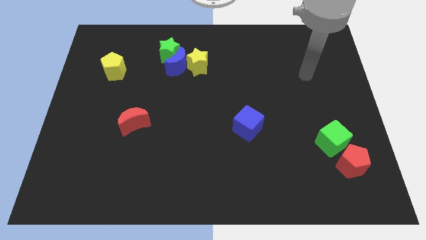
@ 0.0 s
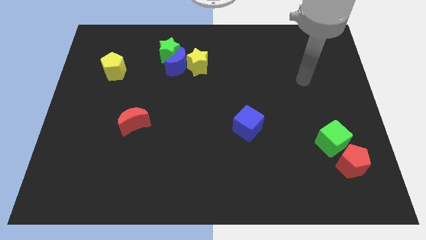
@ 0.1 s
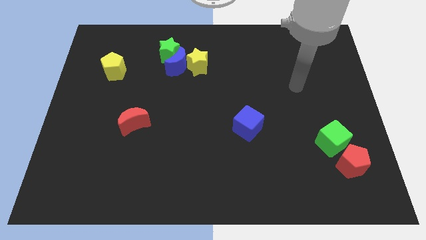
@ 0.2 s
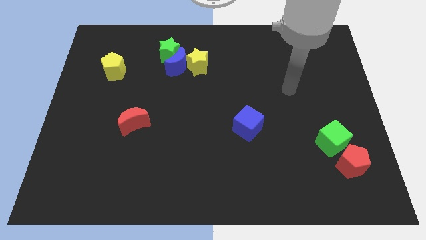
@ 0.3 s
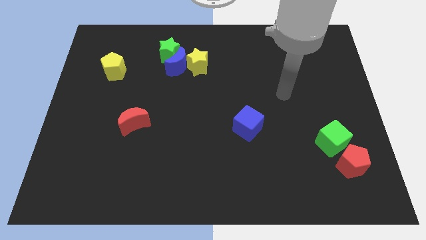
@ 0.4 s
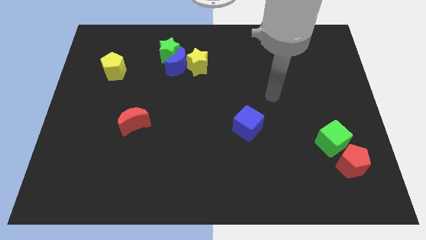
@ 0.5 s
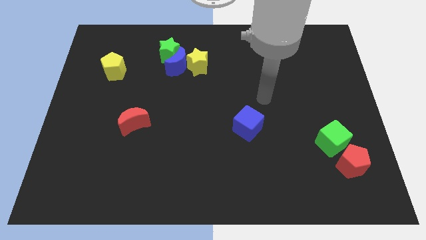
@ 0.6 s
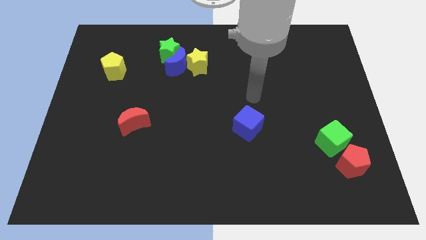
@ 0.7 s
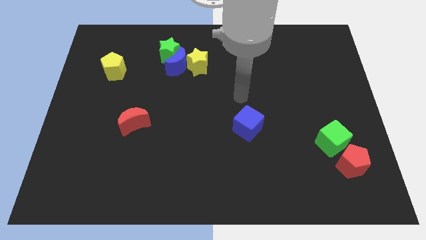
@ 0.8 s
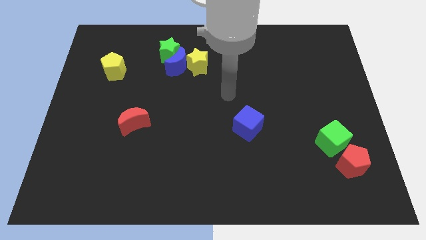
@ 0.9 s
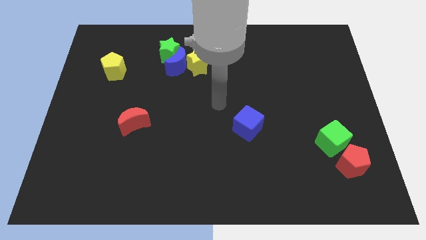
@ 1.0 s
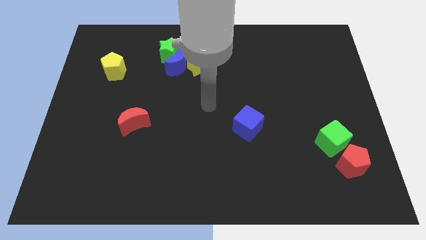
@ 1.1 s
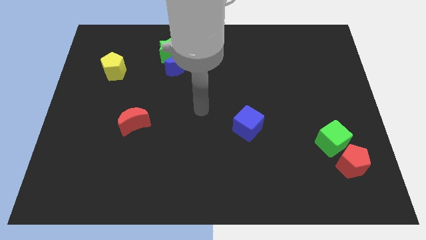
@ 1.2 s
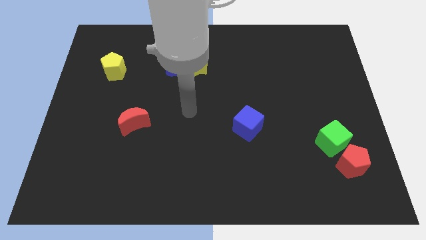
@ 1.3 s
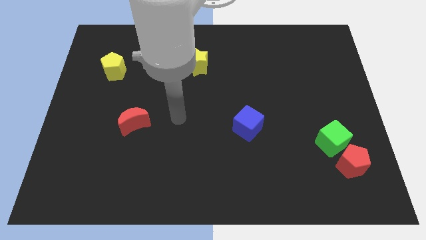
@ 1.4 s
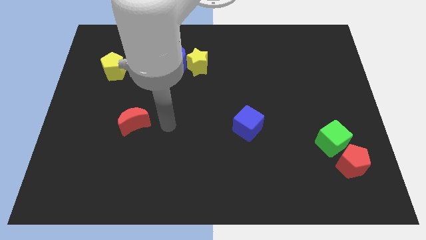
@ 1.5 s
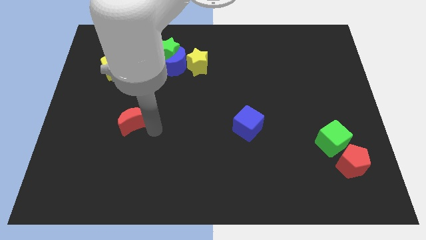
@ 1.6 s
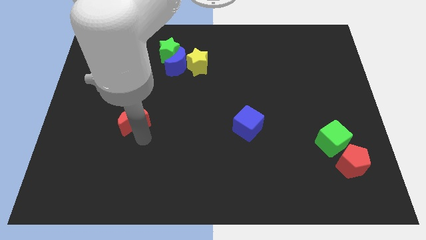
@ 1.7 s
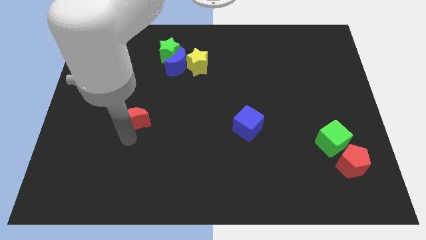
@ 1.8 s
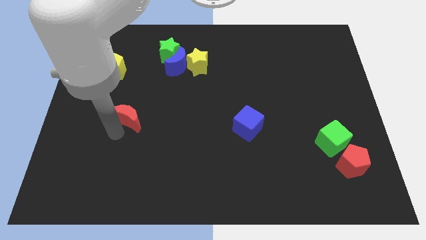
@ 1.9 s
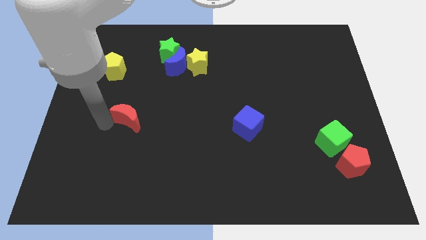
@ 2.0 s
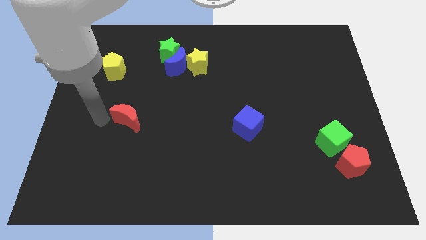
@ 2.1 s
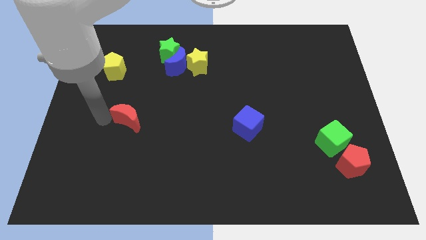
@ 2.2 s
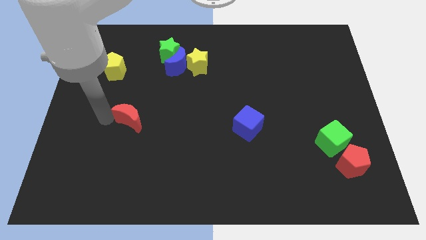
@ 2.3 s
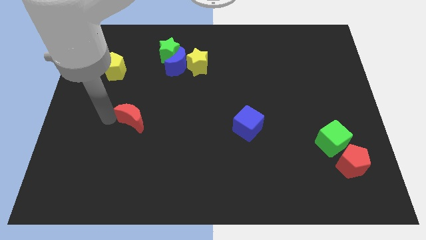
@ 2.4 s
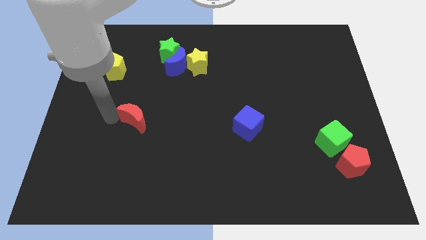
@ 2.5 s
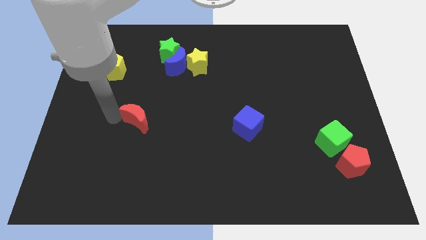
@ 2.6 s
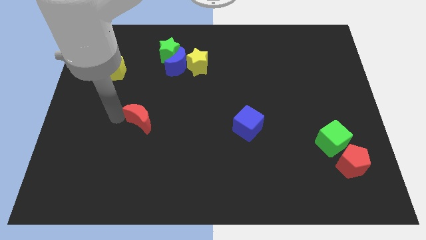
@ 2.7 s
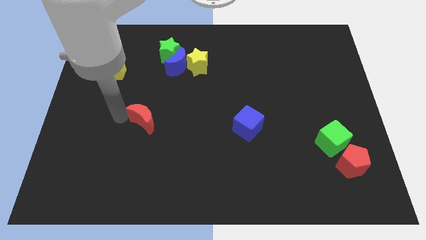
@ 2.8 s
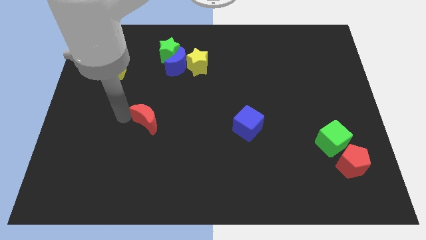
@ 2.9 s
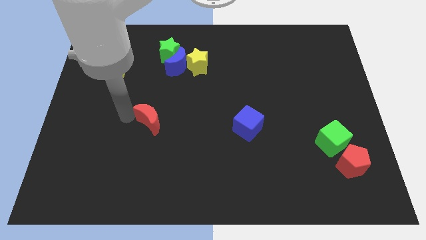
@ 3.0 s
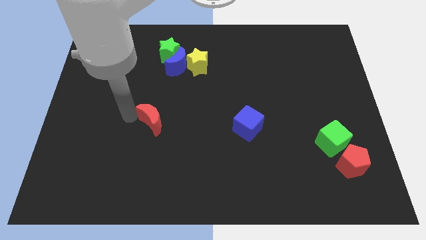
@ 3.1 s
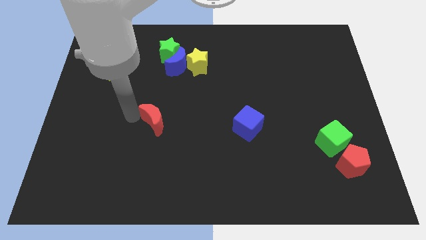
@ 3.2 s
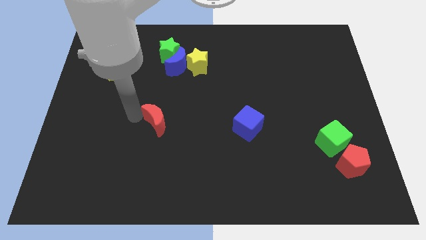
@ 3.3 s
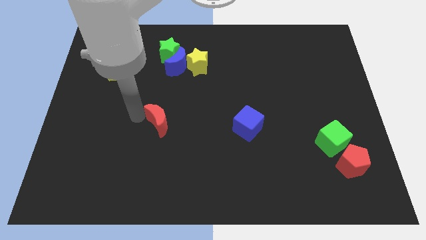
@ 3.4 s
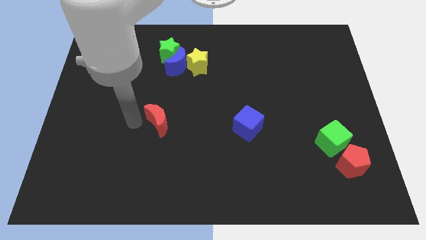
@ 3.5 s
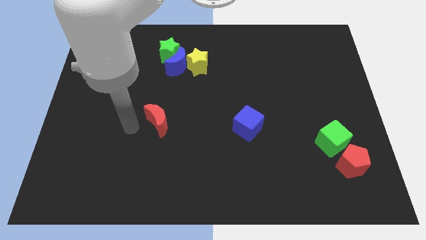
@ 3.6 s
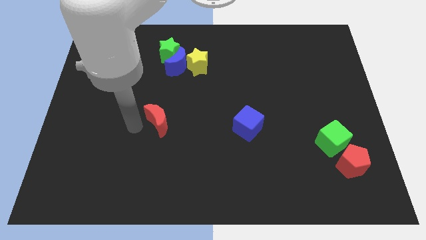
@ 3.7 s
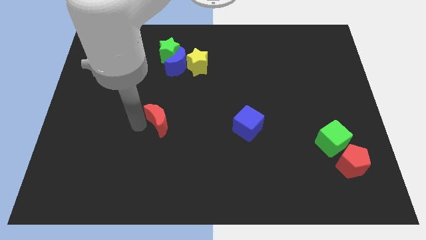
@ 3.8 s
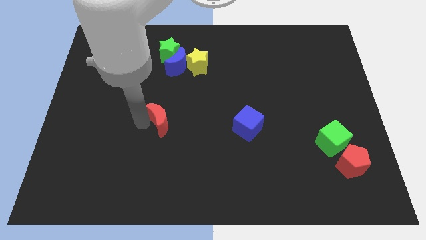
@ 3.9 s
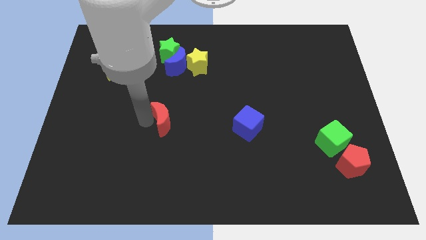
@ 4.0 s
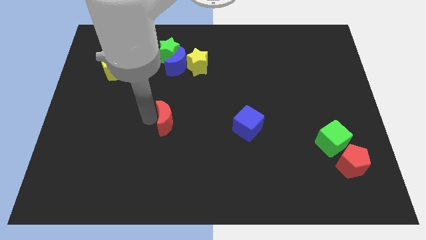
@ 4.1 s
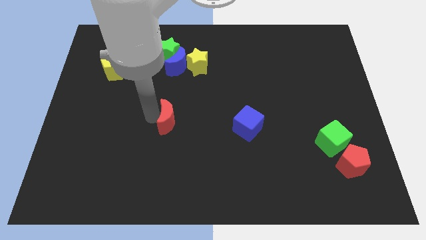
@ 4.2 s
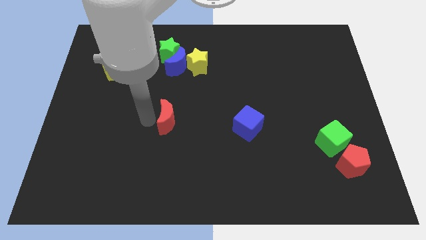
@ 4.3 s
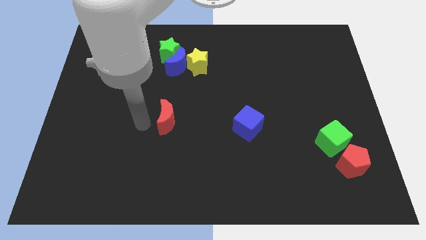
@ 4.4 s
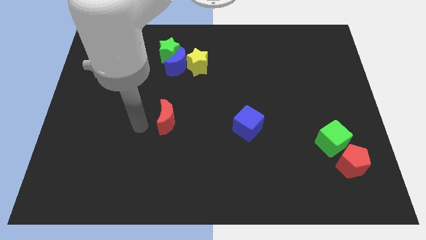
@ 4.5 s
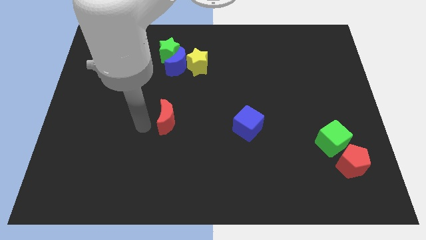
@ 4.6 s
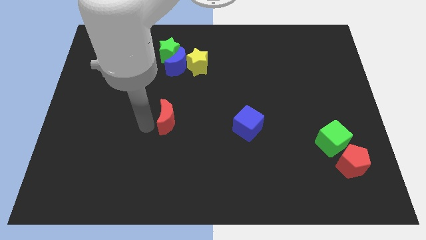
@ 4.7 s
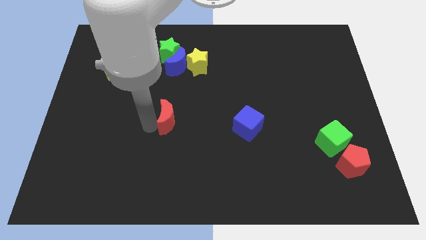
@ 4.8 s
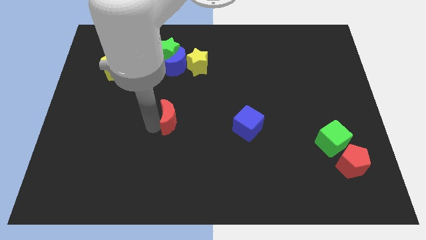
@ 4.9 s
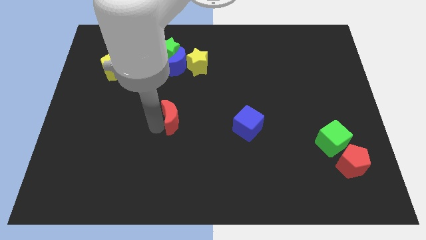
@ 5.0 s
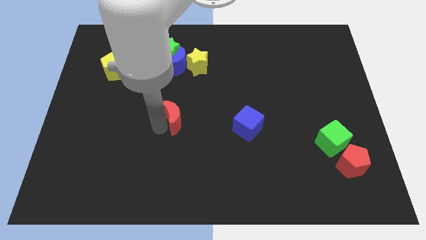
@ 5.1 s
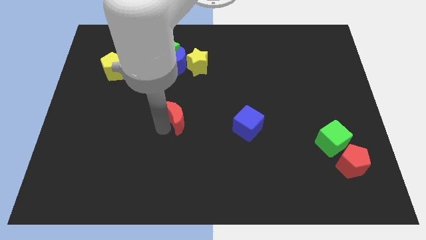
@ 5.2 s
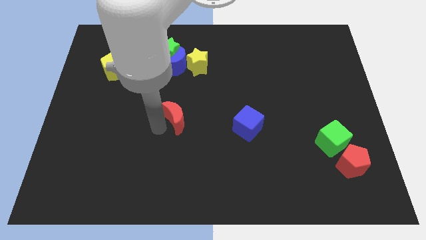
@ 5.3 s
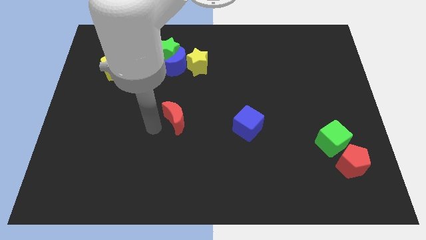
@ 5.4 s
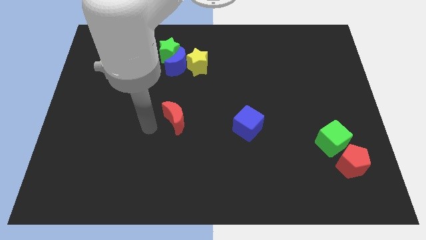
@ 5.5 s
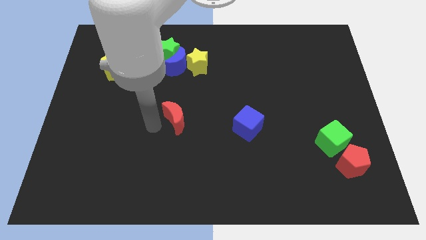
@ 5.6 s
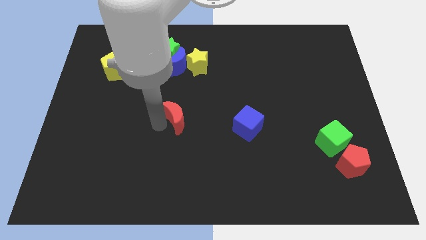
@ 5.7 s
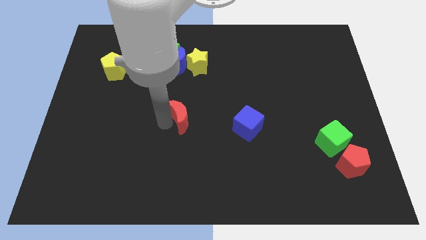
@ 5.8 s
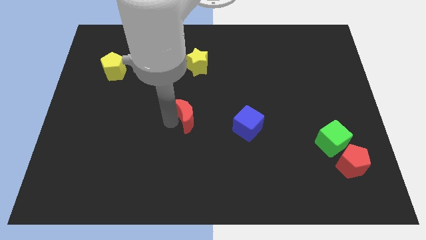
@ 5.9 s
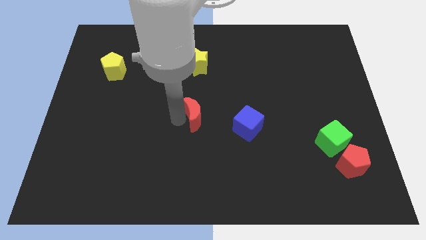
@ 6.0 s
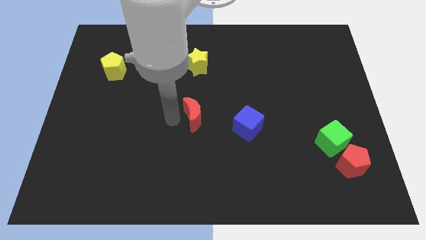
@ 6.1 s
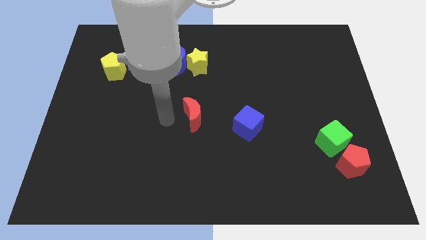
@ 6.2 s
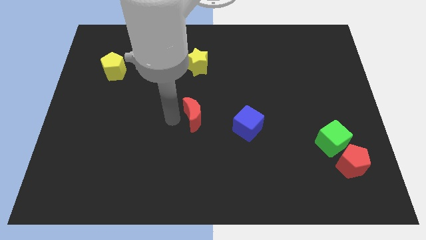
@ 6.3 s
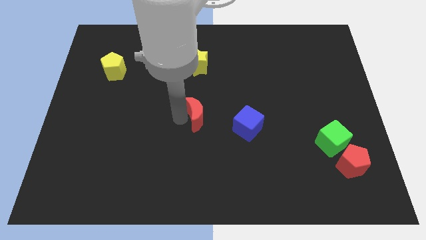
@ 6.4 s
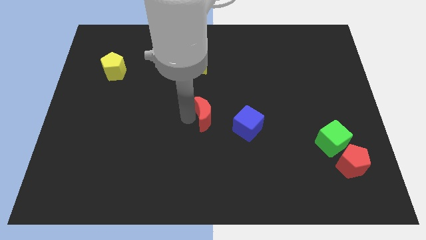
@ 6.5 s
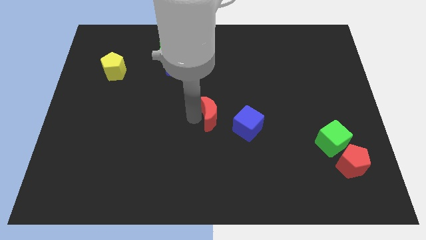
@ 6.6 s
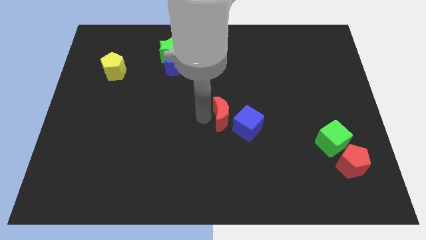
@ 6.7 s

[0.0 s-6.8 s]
push the red moon right

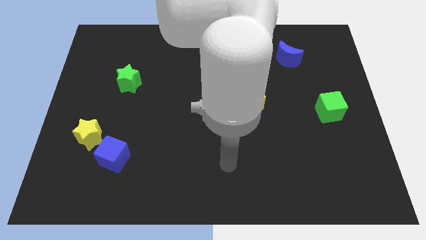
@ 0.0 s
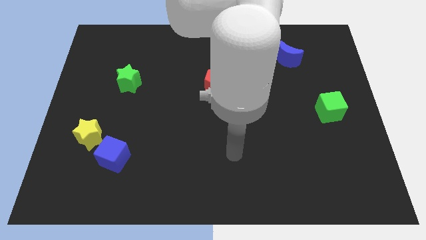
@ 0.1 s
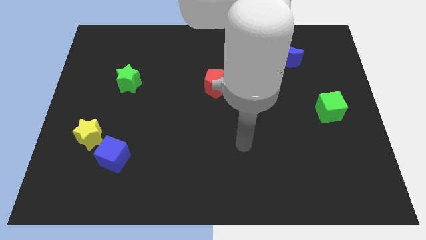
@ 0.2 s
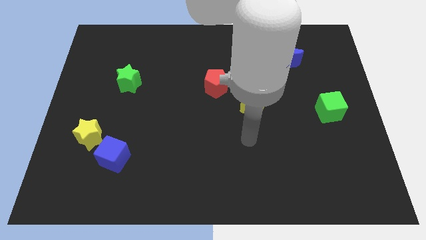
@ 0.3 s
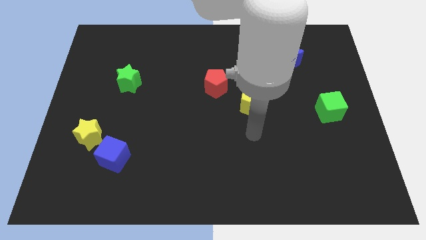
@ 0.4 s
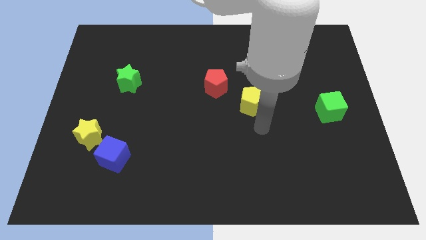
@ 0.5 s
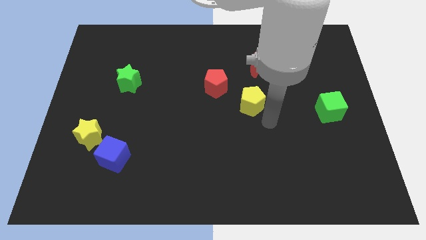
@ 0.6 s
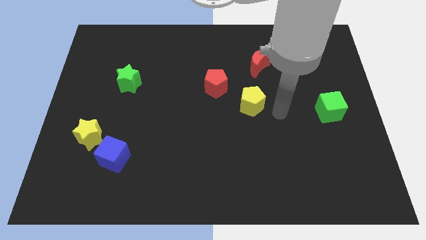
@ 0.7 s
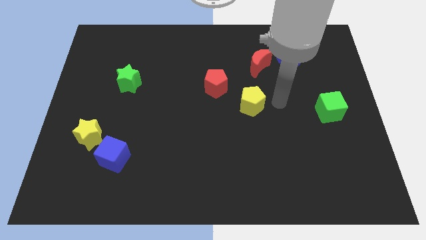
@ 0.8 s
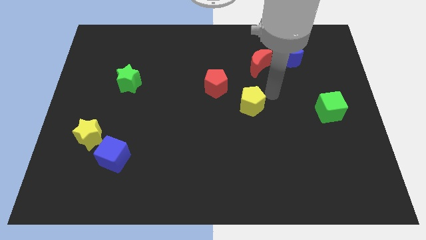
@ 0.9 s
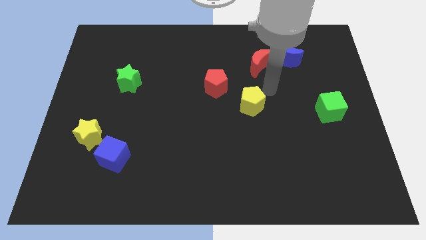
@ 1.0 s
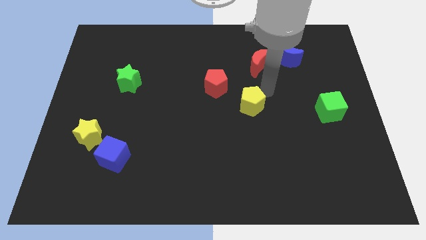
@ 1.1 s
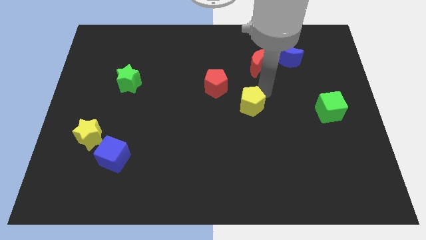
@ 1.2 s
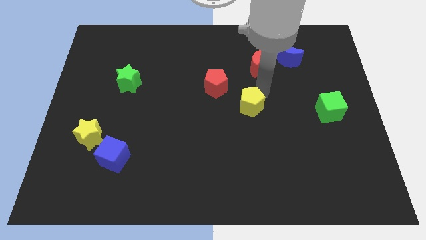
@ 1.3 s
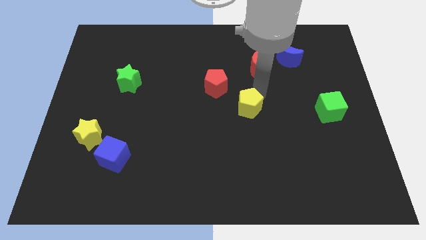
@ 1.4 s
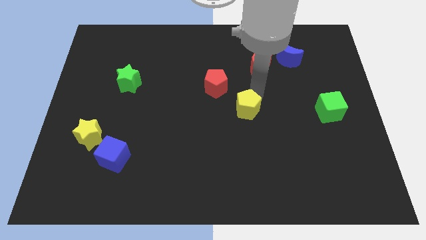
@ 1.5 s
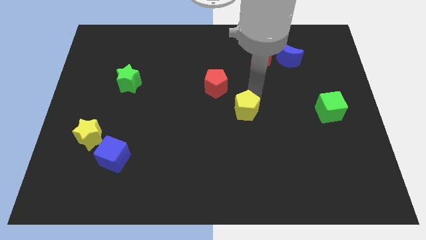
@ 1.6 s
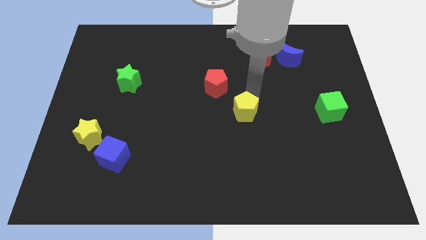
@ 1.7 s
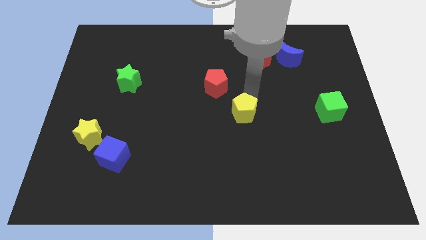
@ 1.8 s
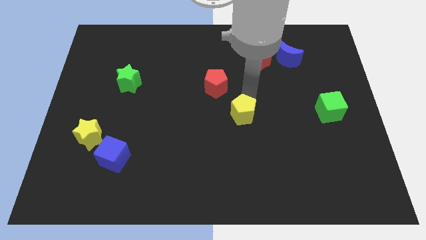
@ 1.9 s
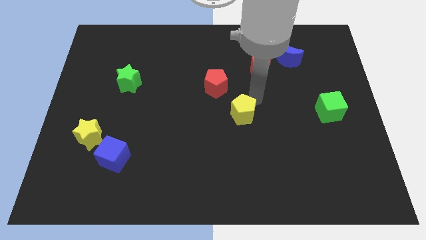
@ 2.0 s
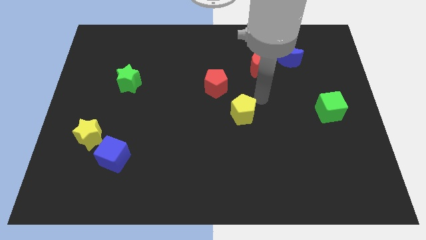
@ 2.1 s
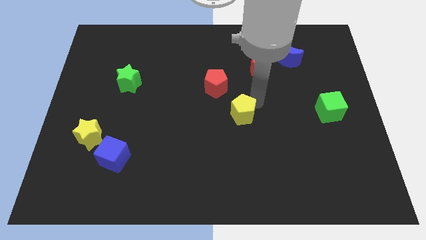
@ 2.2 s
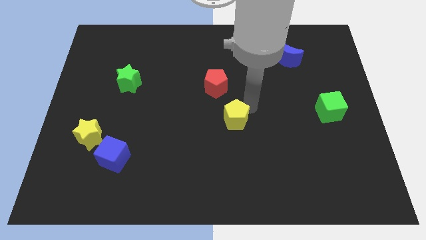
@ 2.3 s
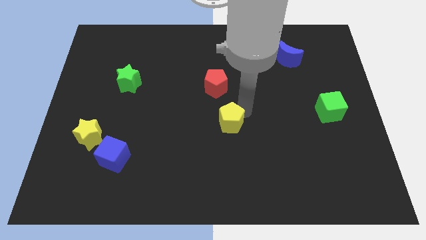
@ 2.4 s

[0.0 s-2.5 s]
move the yellow pentagon down and left diagonally somewhat
